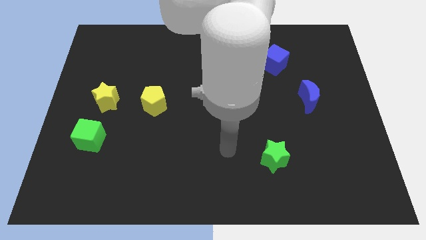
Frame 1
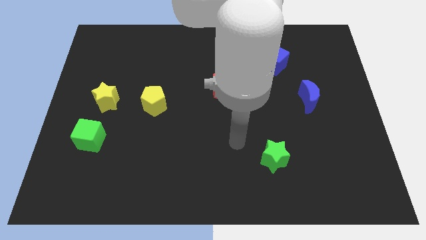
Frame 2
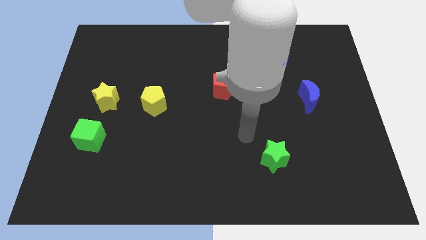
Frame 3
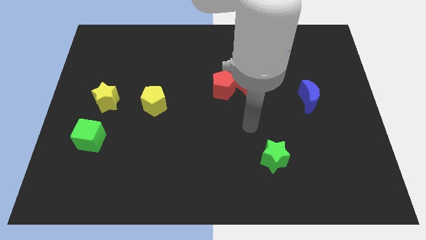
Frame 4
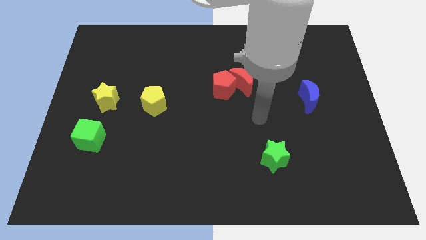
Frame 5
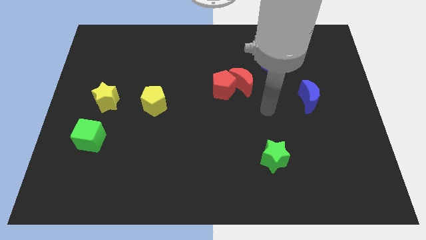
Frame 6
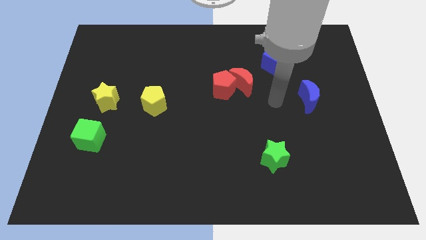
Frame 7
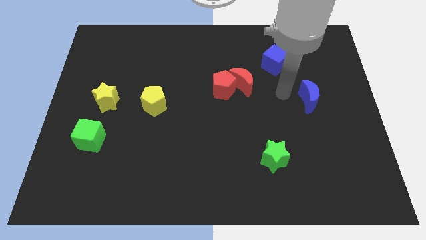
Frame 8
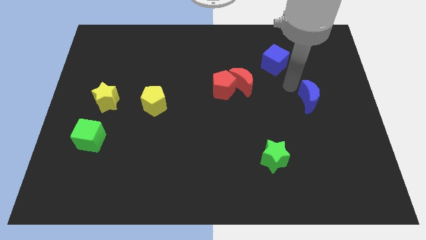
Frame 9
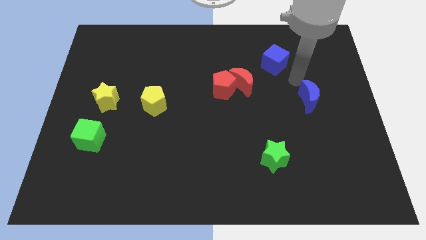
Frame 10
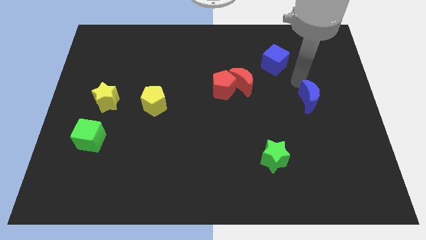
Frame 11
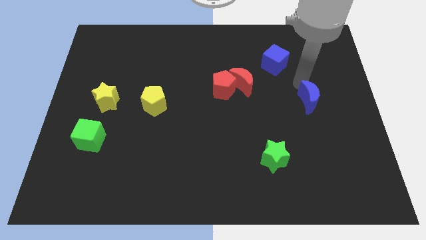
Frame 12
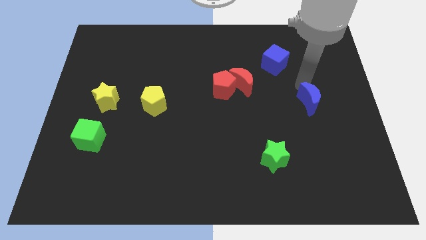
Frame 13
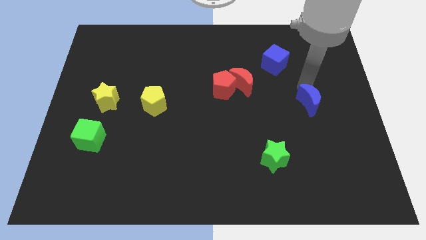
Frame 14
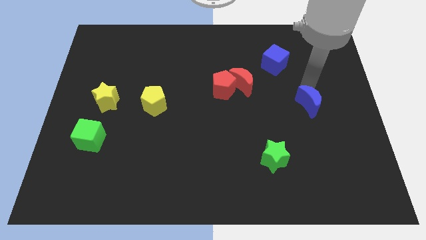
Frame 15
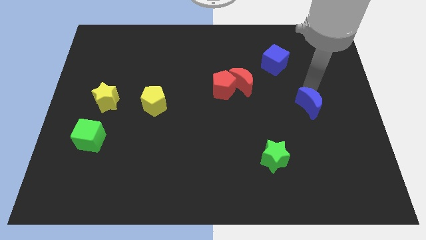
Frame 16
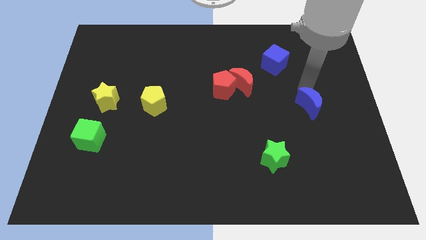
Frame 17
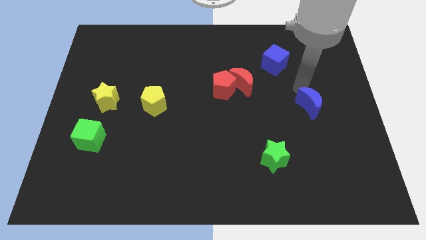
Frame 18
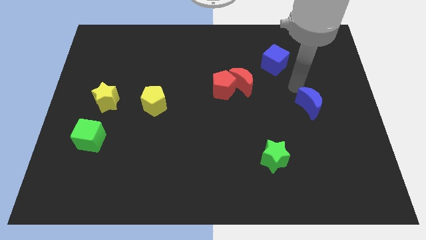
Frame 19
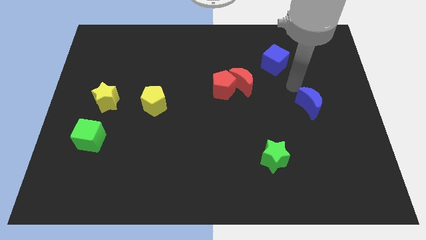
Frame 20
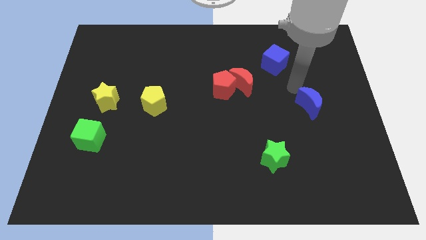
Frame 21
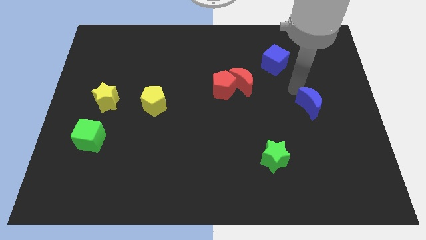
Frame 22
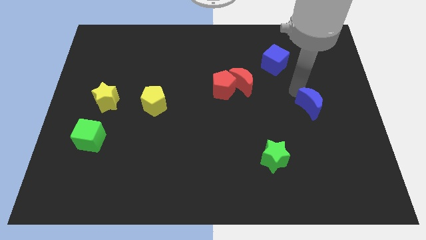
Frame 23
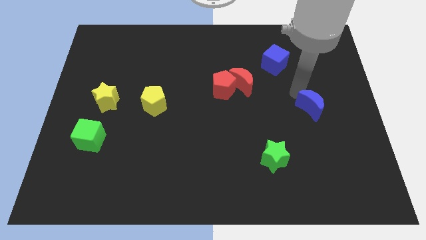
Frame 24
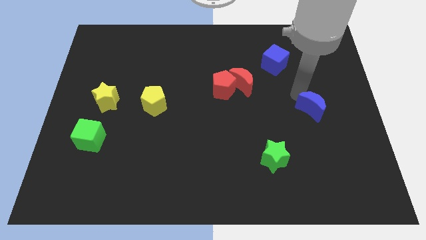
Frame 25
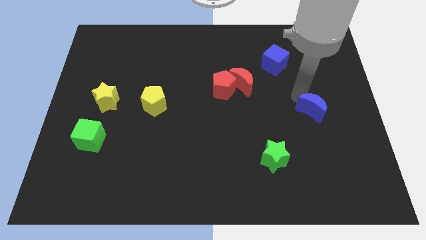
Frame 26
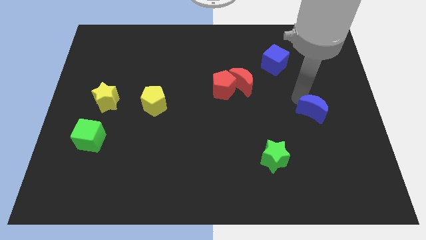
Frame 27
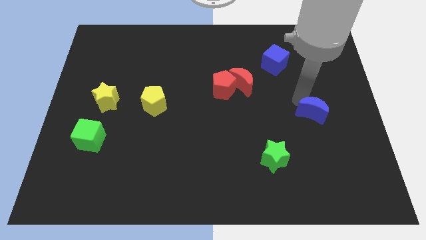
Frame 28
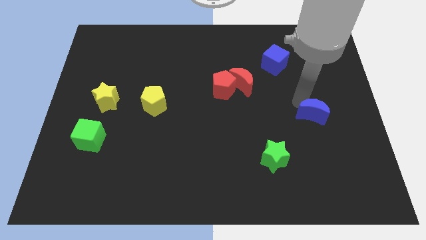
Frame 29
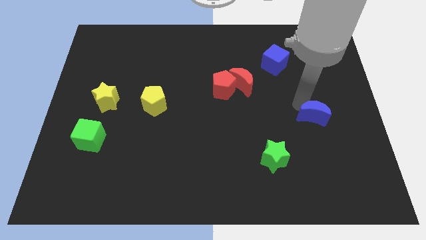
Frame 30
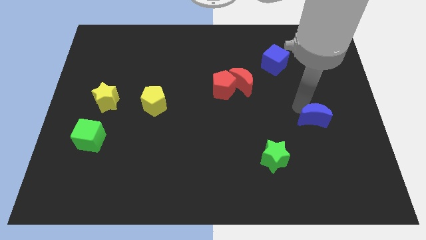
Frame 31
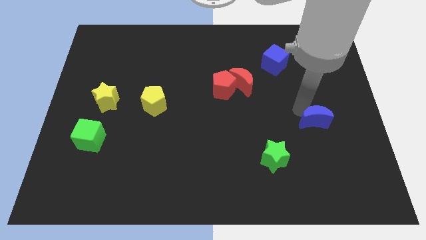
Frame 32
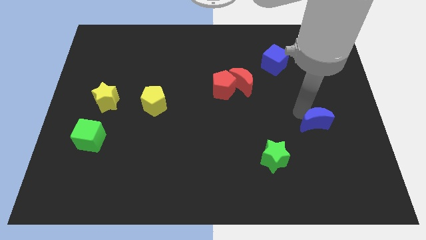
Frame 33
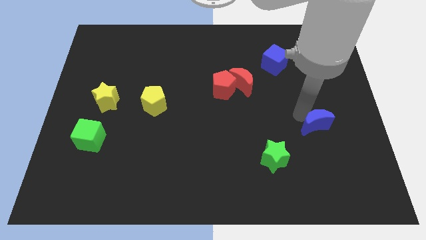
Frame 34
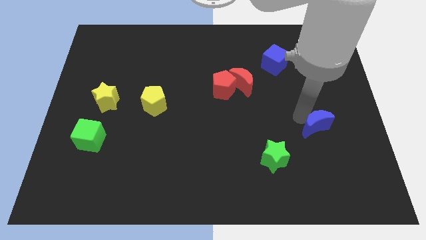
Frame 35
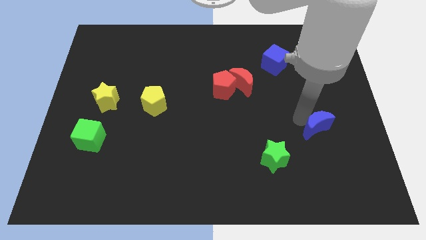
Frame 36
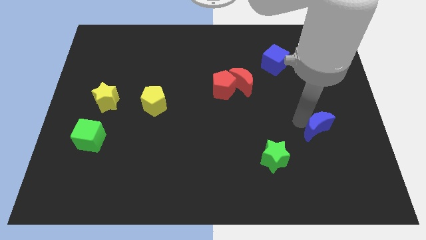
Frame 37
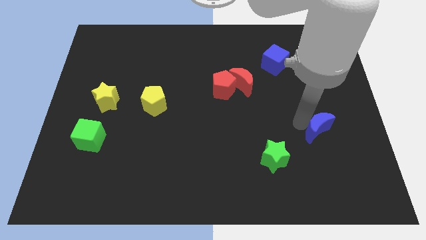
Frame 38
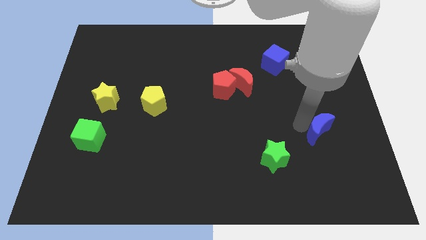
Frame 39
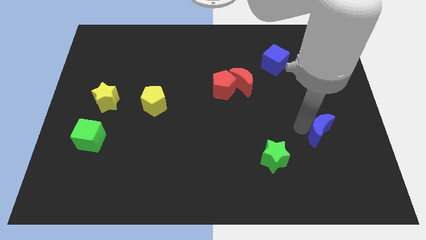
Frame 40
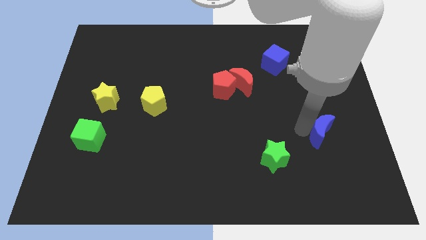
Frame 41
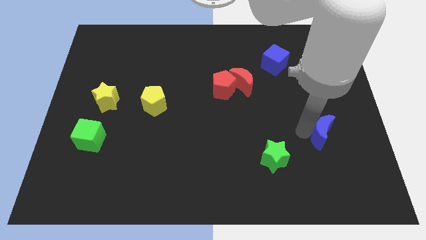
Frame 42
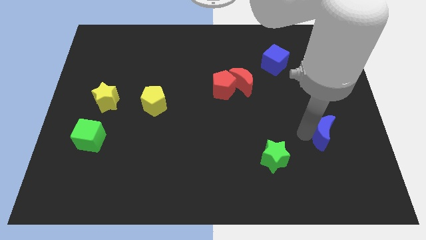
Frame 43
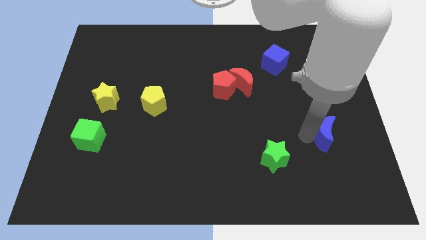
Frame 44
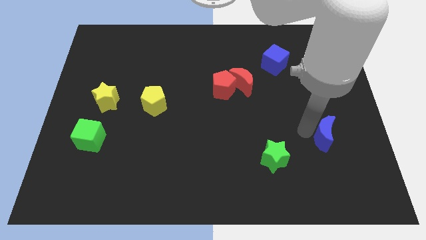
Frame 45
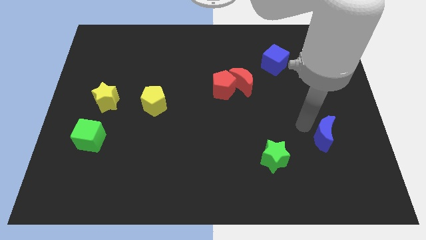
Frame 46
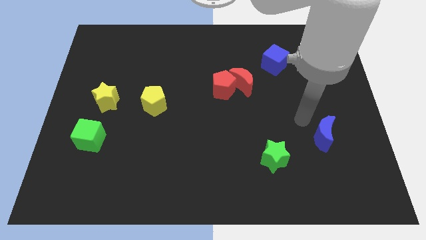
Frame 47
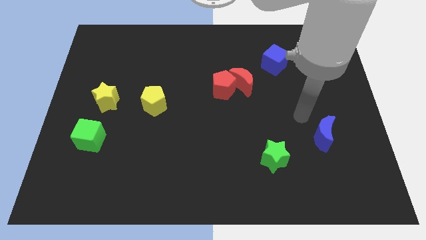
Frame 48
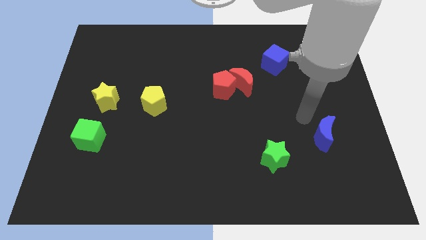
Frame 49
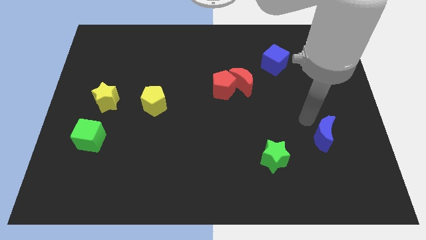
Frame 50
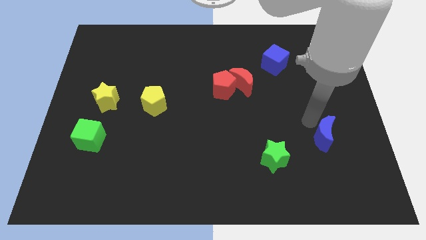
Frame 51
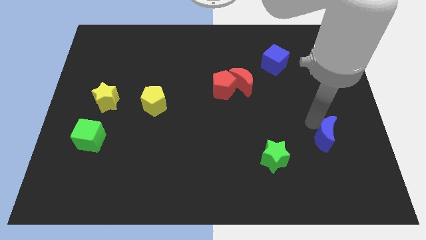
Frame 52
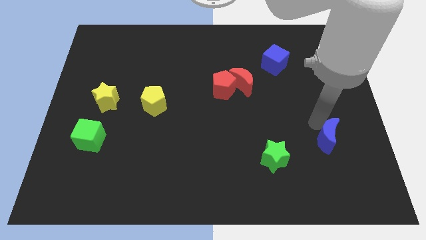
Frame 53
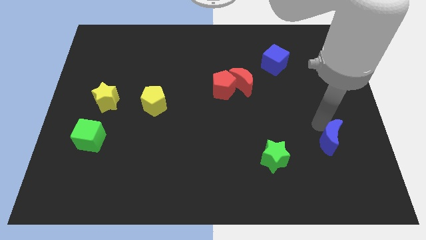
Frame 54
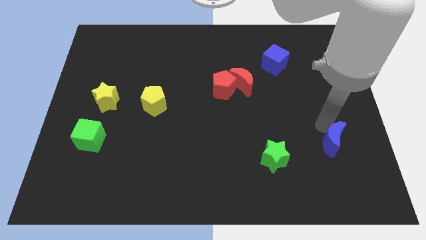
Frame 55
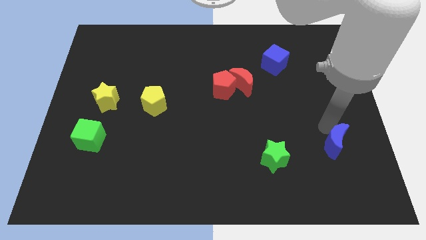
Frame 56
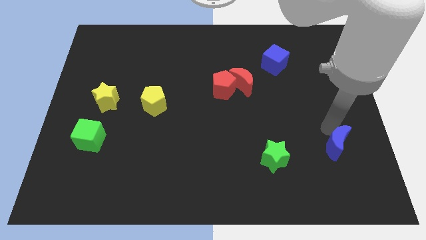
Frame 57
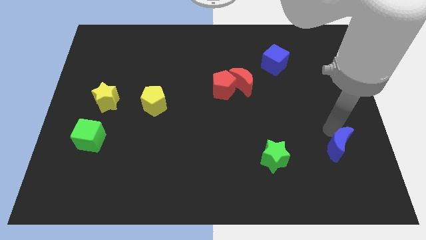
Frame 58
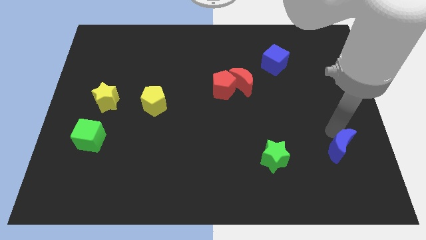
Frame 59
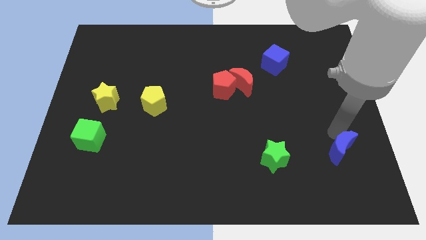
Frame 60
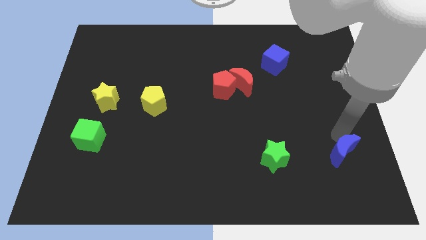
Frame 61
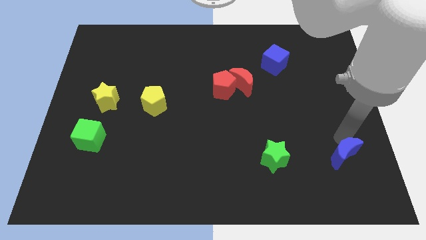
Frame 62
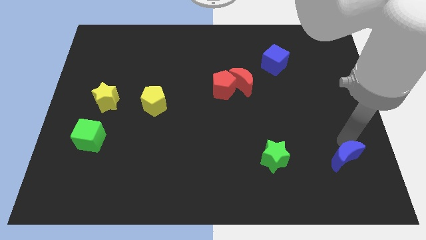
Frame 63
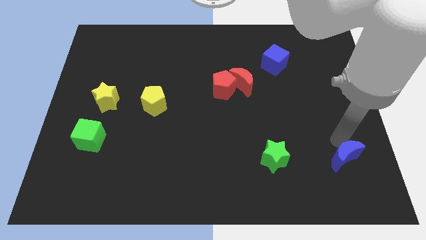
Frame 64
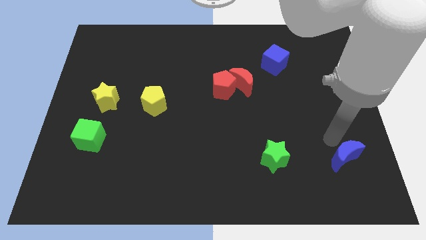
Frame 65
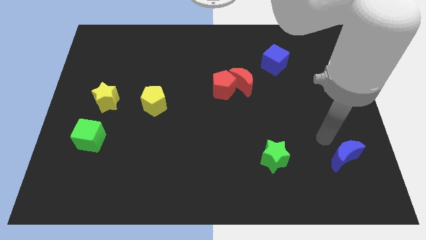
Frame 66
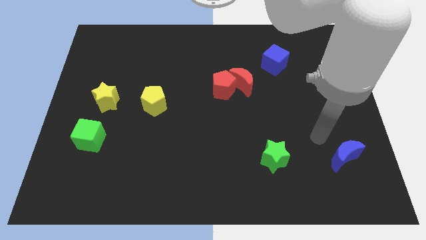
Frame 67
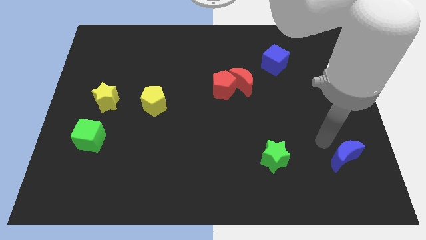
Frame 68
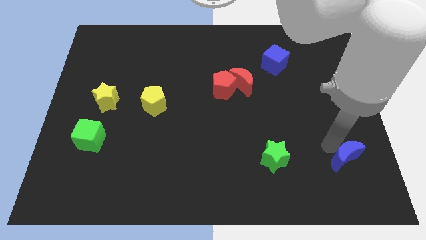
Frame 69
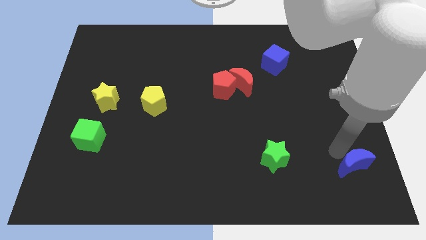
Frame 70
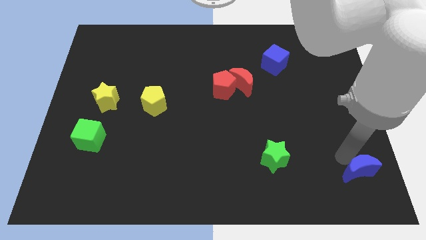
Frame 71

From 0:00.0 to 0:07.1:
move the blue moon to the bottom right of the board
